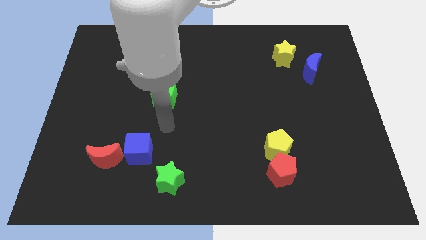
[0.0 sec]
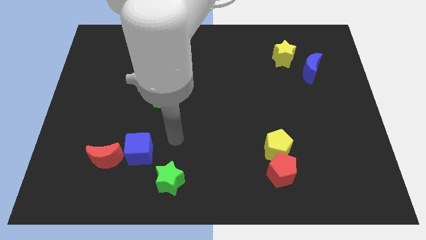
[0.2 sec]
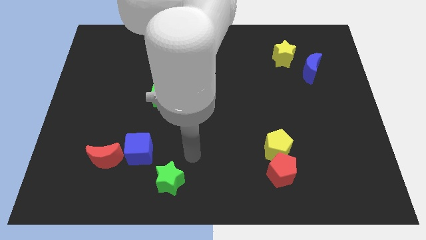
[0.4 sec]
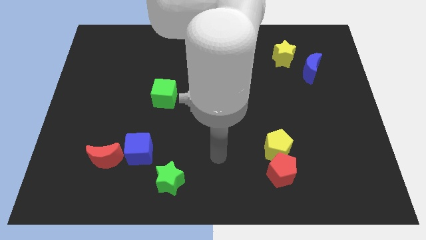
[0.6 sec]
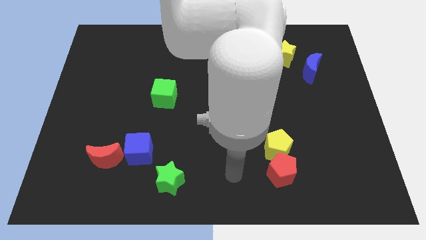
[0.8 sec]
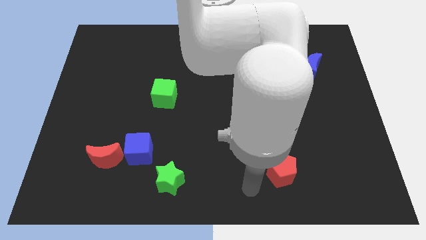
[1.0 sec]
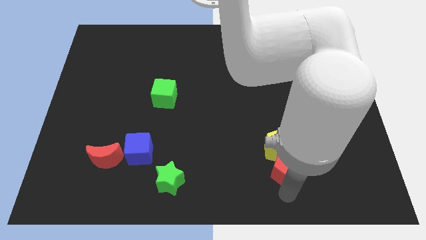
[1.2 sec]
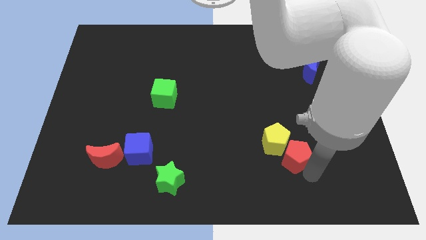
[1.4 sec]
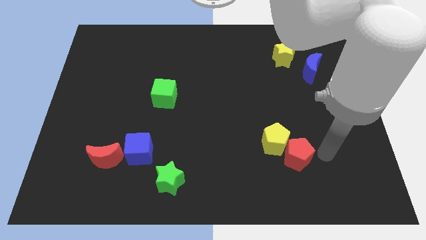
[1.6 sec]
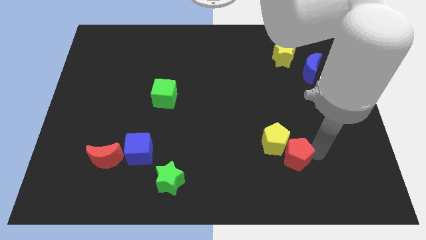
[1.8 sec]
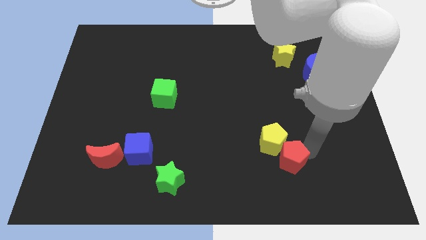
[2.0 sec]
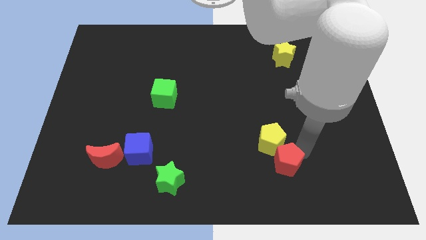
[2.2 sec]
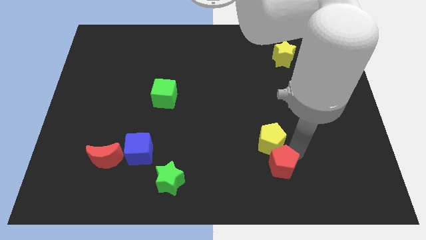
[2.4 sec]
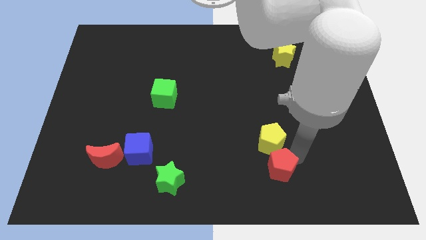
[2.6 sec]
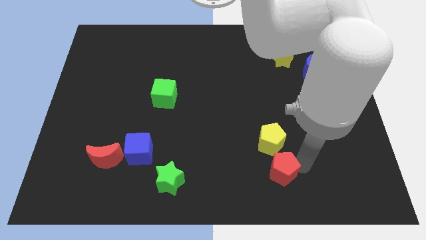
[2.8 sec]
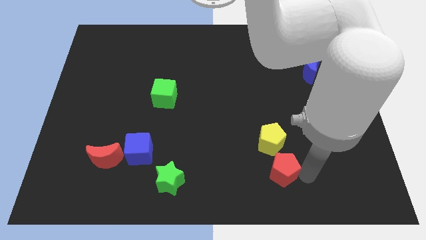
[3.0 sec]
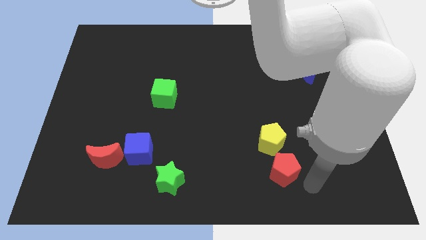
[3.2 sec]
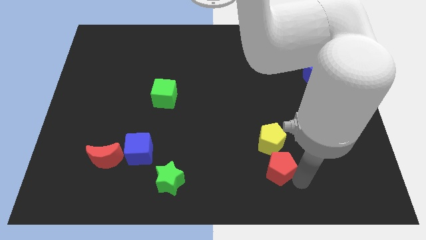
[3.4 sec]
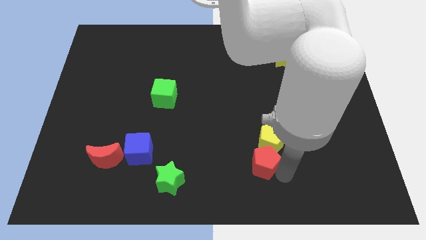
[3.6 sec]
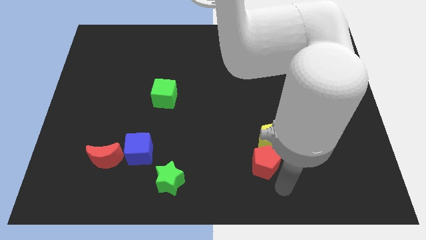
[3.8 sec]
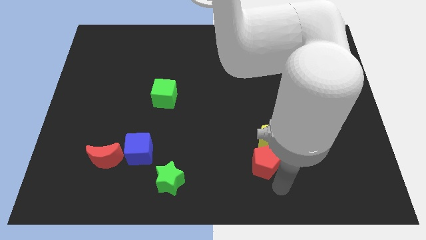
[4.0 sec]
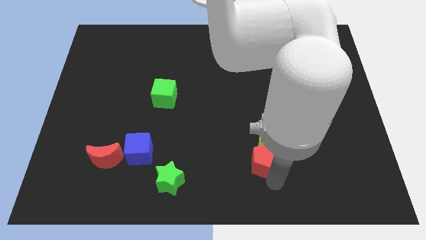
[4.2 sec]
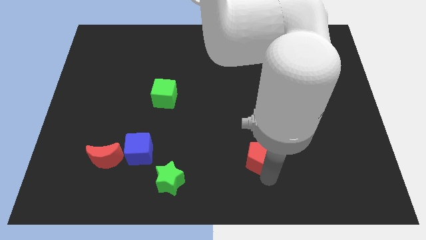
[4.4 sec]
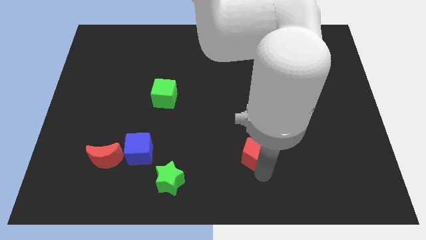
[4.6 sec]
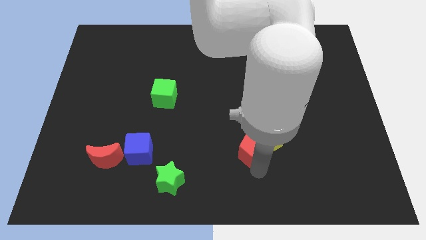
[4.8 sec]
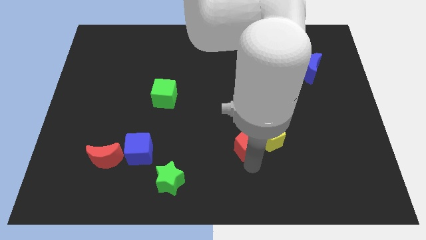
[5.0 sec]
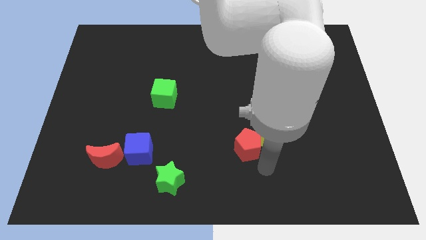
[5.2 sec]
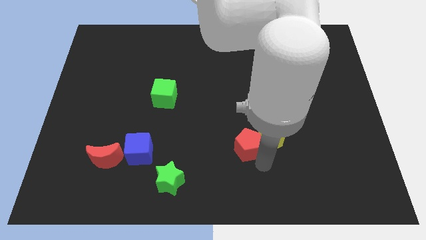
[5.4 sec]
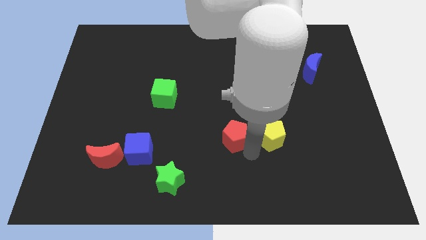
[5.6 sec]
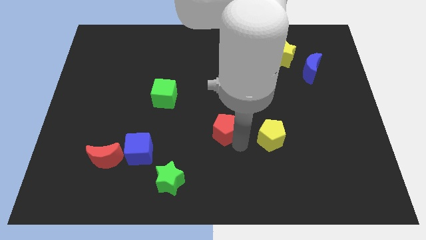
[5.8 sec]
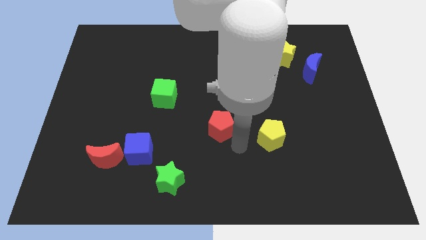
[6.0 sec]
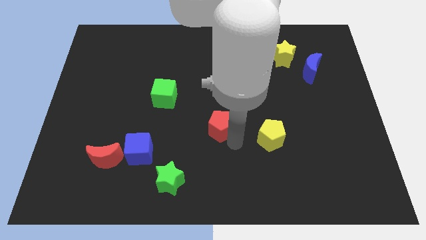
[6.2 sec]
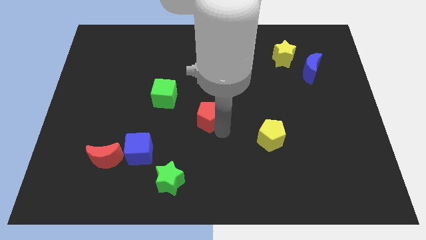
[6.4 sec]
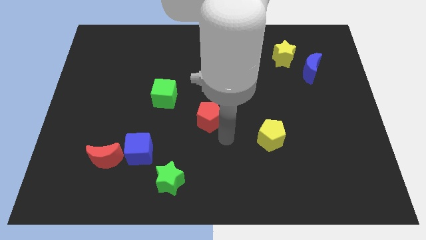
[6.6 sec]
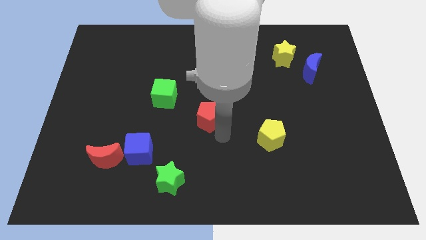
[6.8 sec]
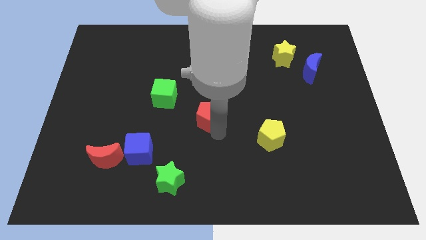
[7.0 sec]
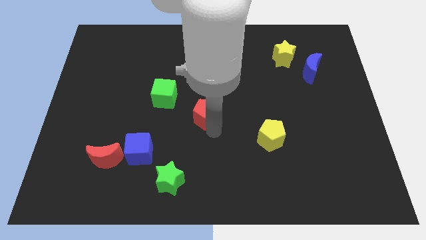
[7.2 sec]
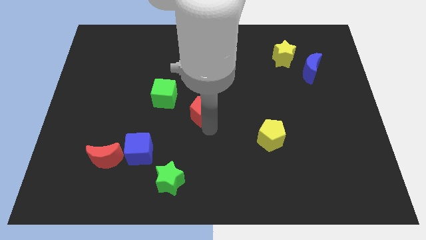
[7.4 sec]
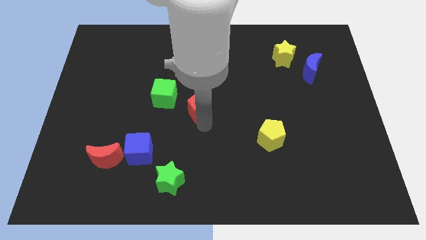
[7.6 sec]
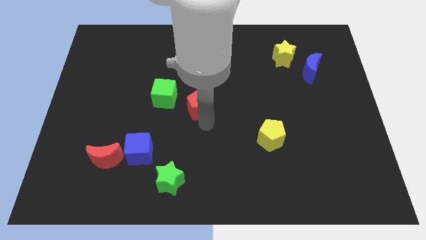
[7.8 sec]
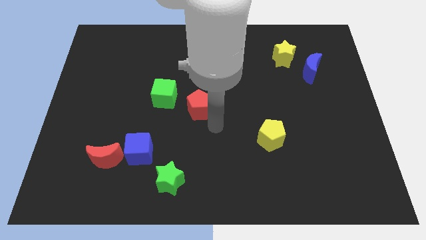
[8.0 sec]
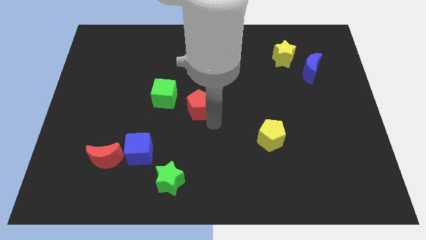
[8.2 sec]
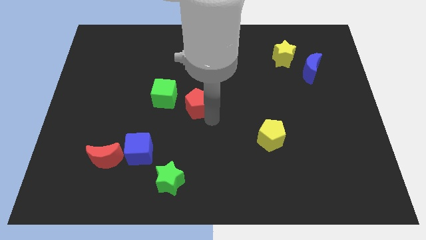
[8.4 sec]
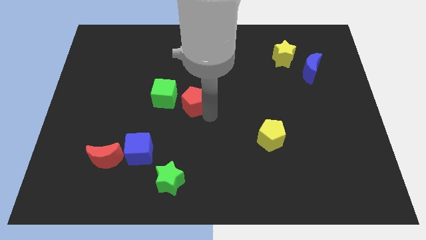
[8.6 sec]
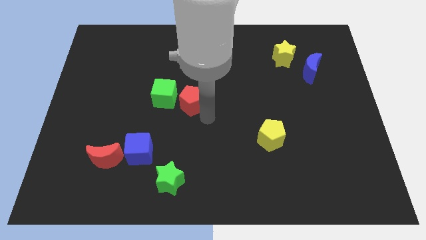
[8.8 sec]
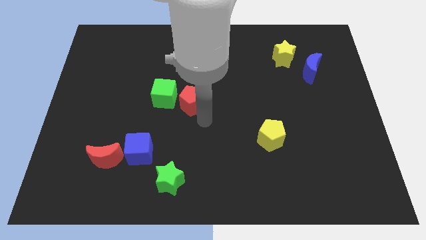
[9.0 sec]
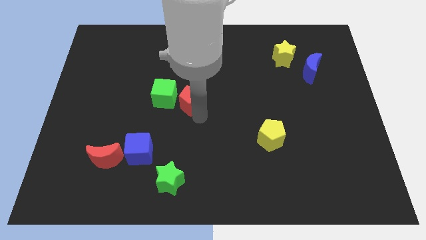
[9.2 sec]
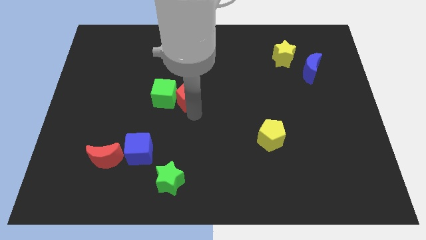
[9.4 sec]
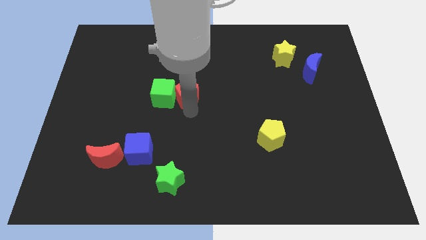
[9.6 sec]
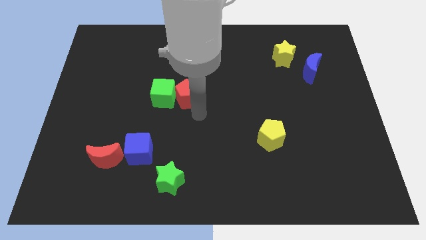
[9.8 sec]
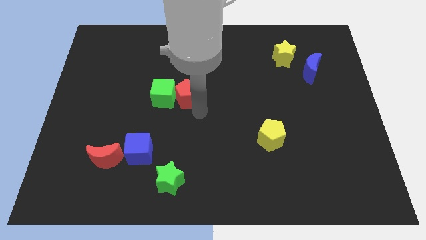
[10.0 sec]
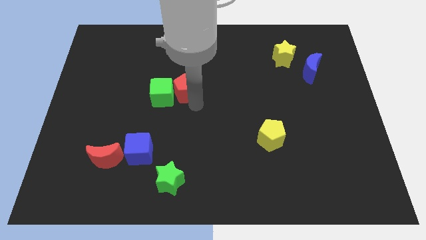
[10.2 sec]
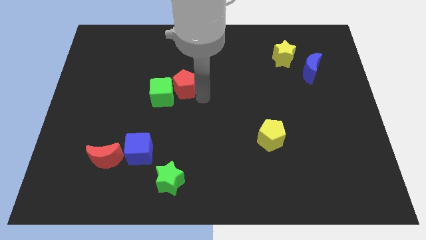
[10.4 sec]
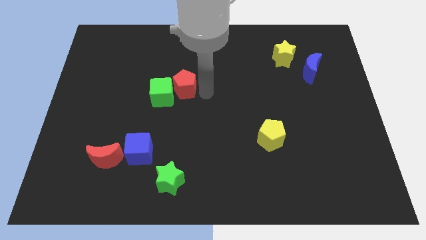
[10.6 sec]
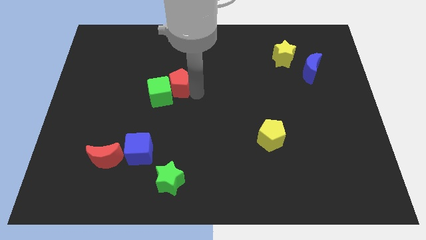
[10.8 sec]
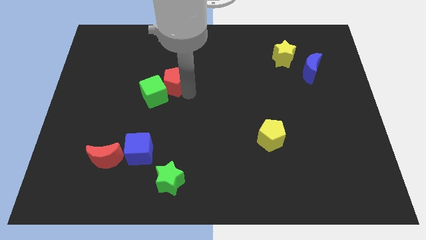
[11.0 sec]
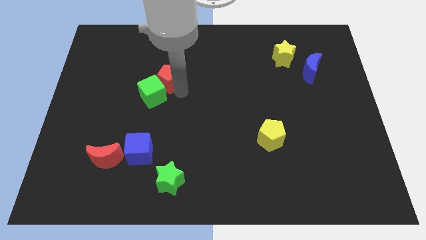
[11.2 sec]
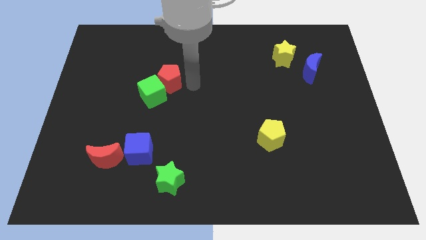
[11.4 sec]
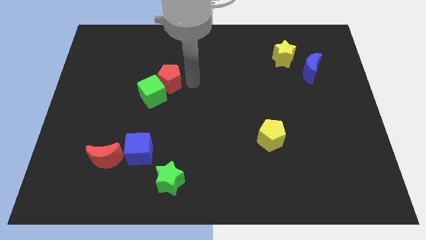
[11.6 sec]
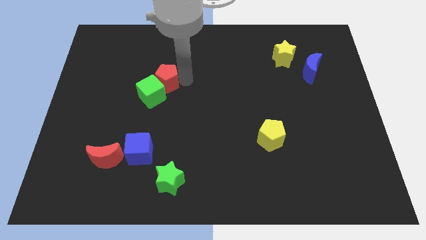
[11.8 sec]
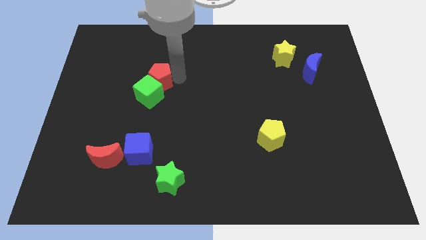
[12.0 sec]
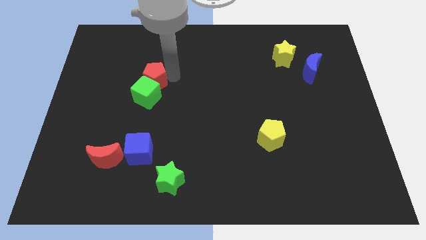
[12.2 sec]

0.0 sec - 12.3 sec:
push the red pentagon to the top left side of the green cube

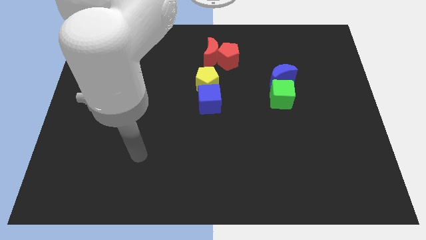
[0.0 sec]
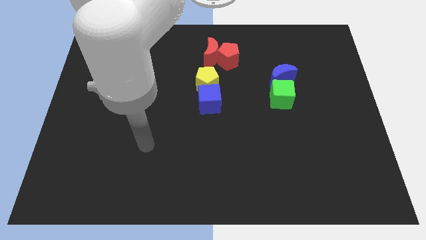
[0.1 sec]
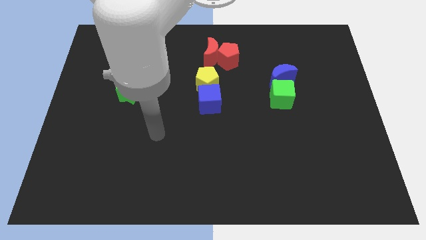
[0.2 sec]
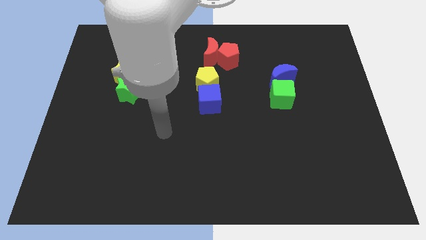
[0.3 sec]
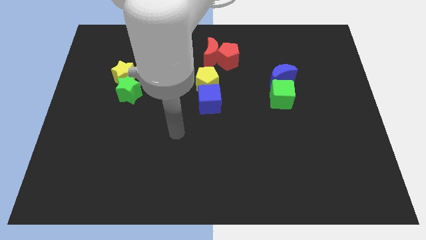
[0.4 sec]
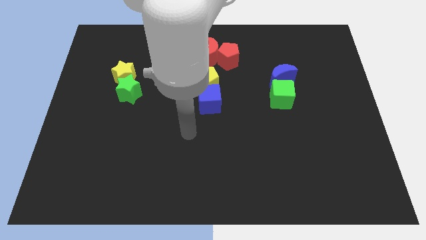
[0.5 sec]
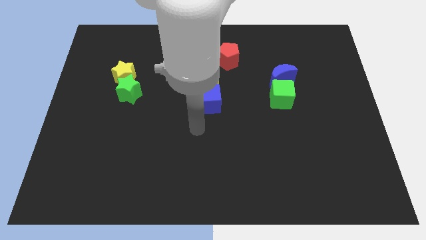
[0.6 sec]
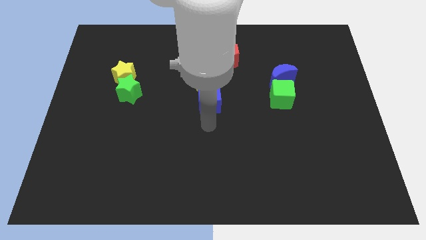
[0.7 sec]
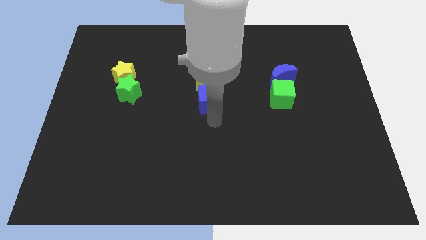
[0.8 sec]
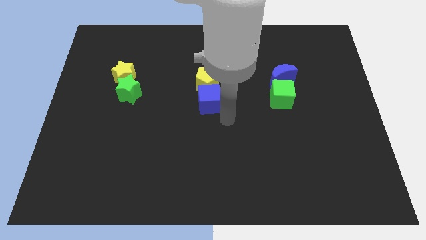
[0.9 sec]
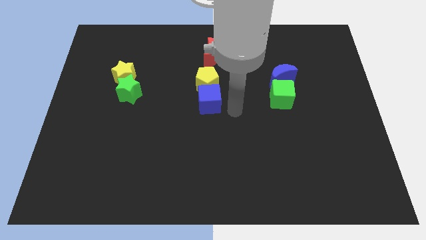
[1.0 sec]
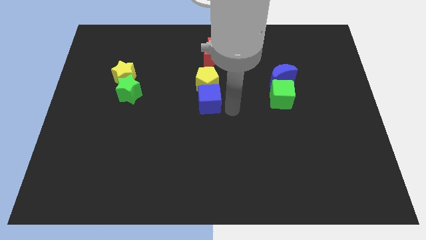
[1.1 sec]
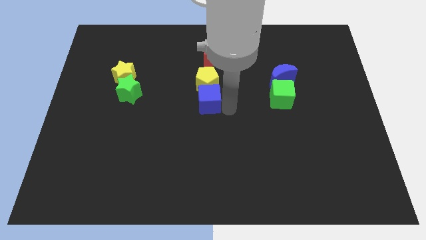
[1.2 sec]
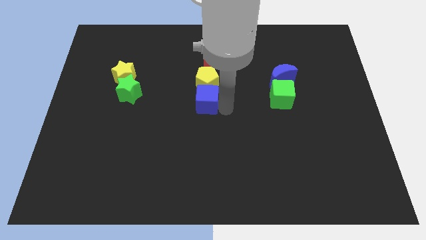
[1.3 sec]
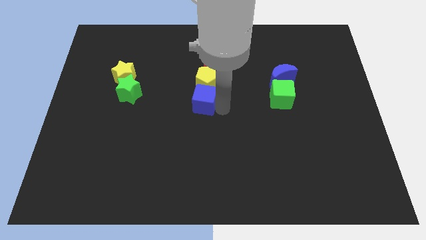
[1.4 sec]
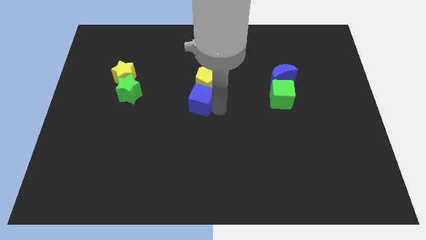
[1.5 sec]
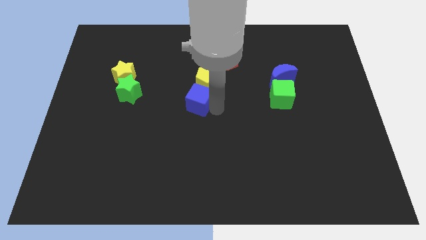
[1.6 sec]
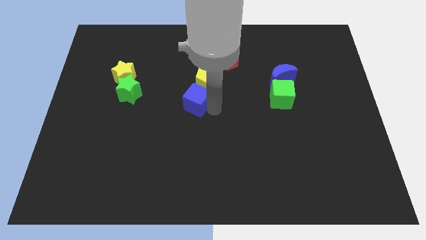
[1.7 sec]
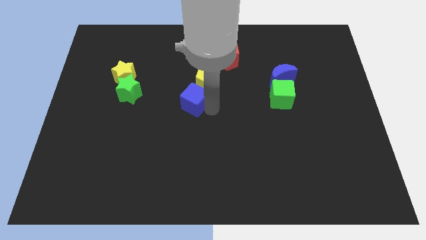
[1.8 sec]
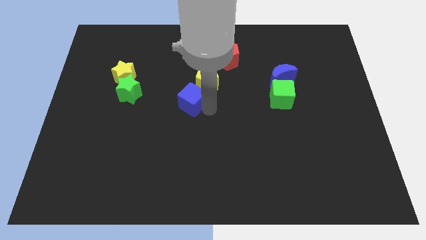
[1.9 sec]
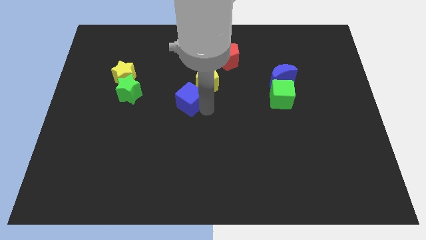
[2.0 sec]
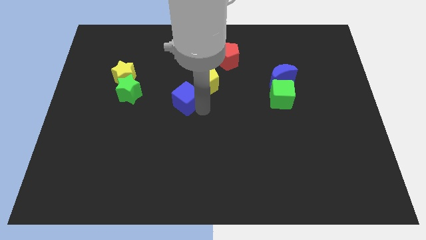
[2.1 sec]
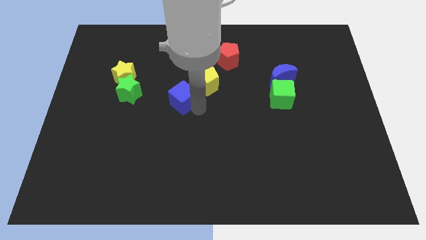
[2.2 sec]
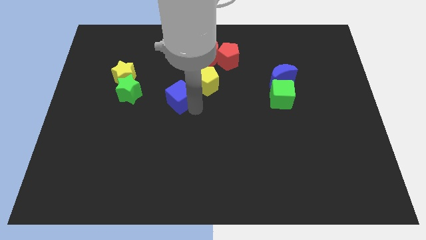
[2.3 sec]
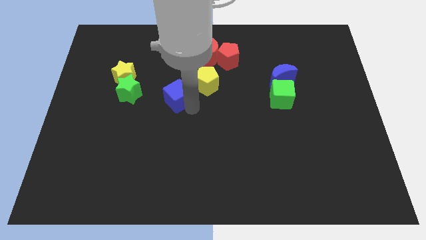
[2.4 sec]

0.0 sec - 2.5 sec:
slide the blue cube to the left of the yellow pentagon
